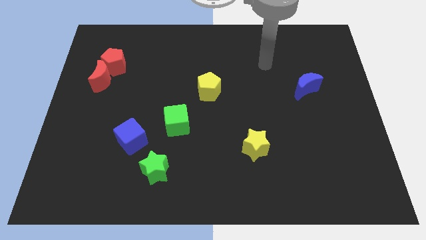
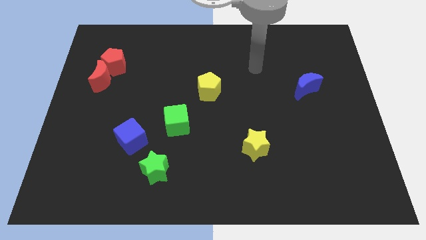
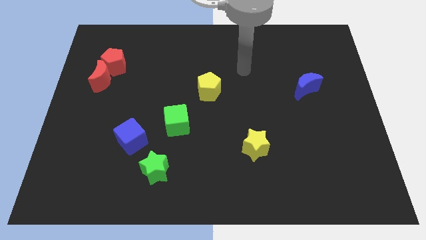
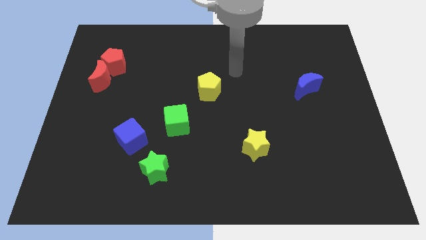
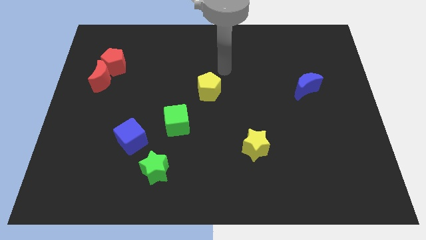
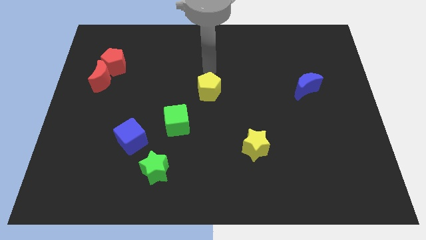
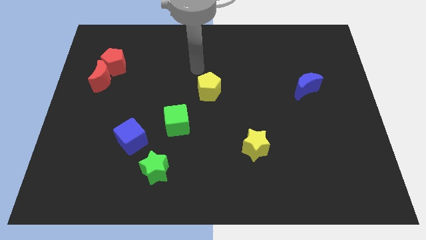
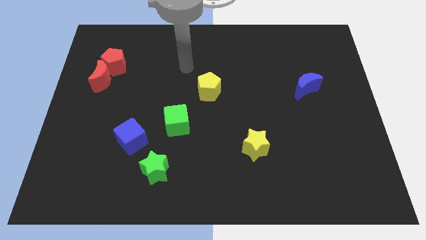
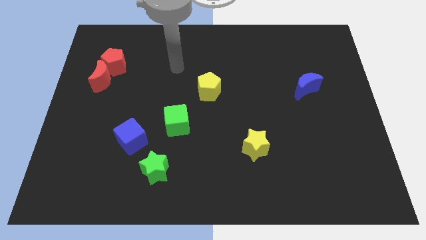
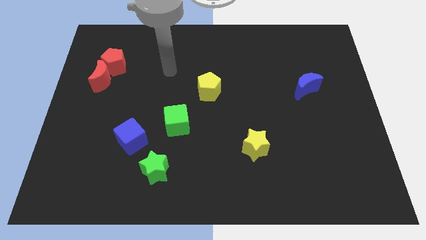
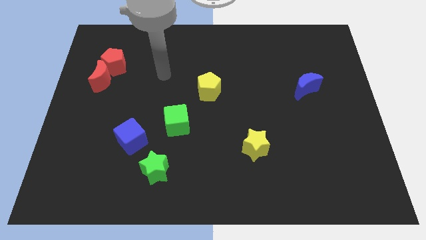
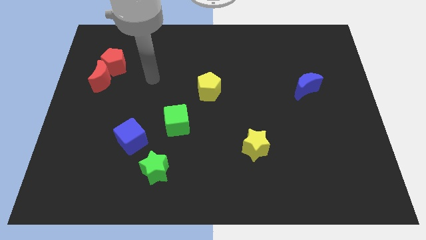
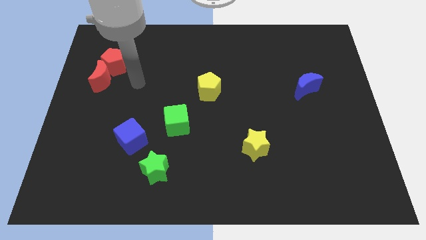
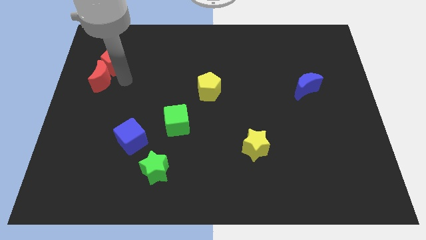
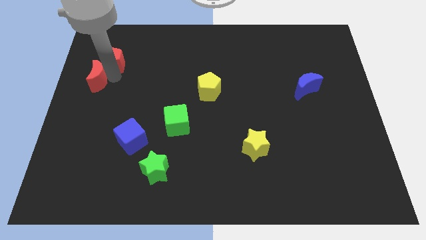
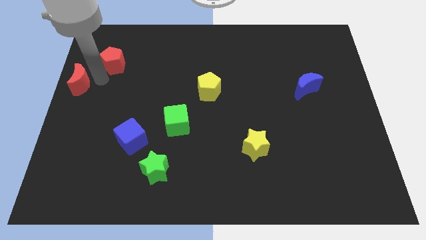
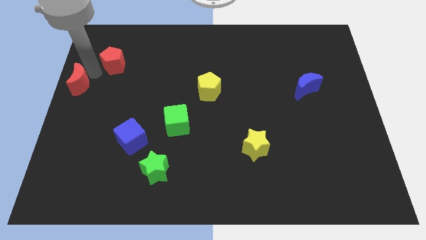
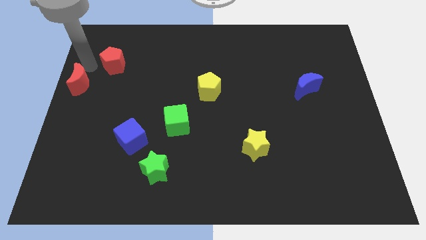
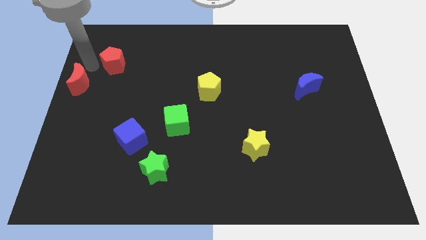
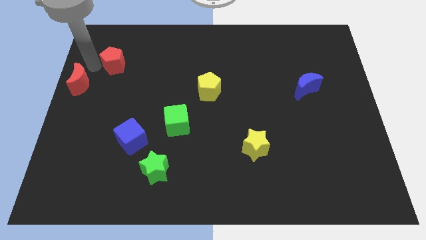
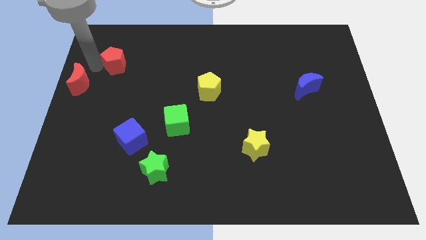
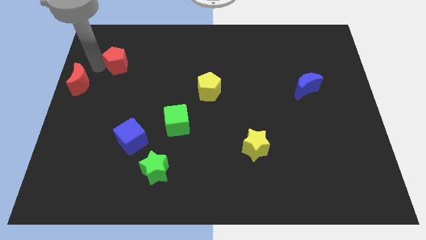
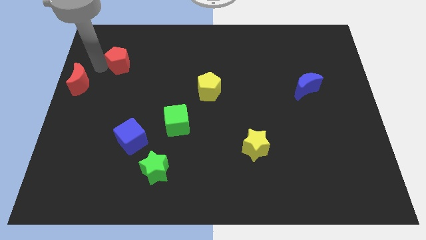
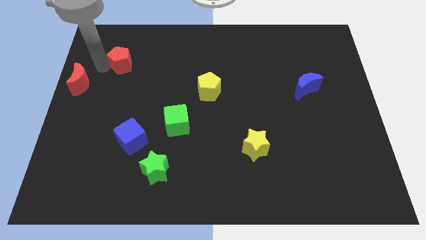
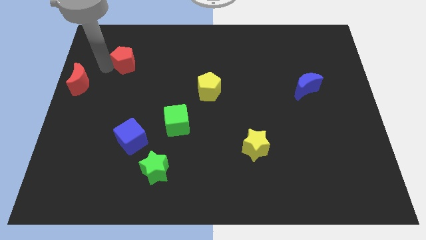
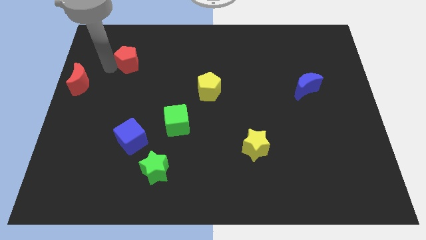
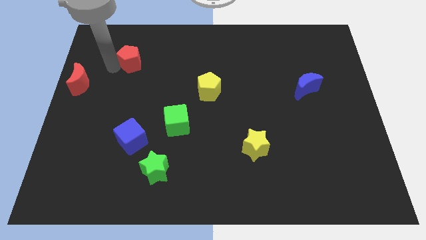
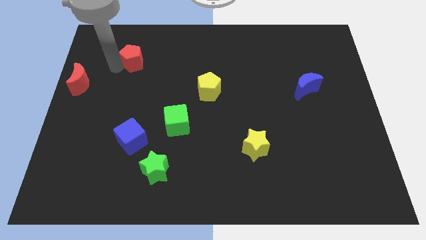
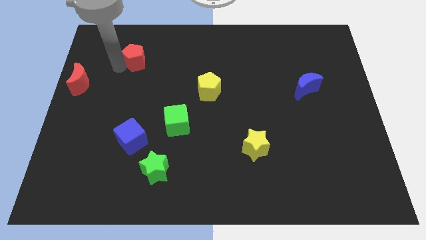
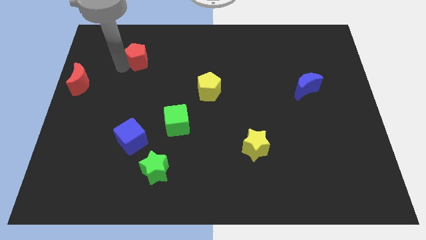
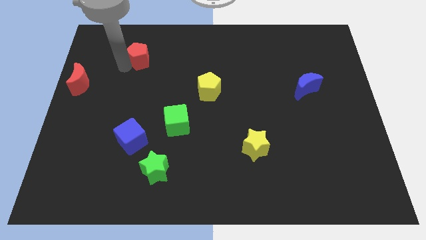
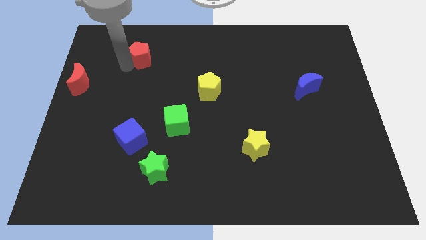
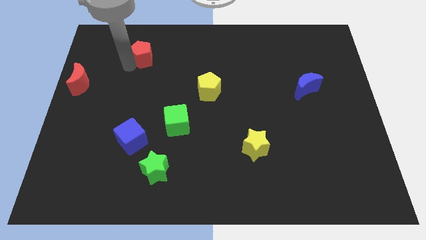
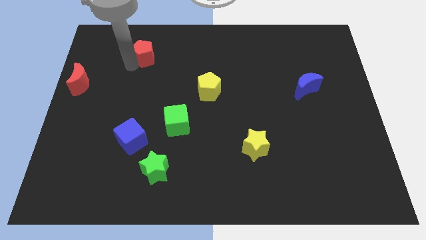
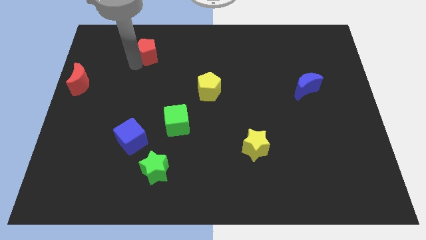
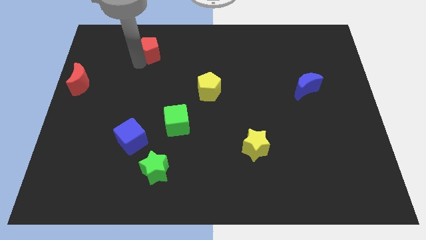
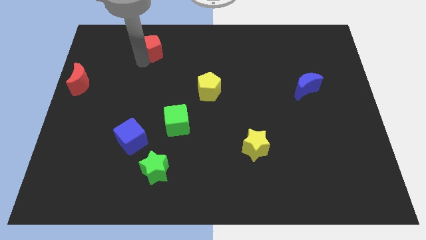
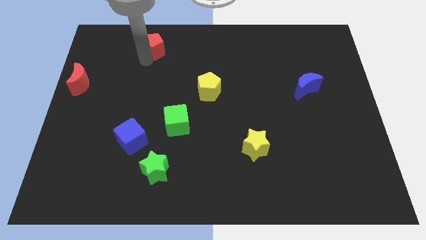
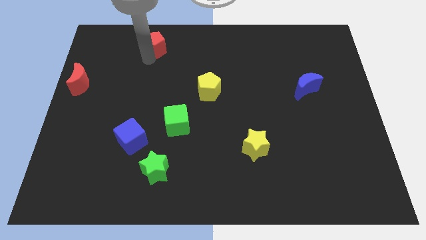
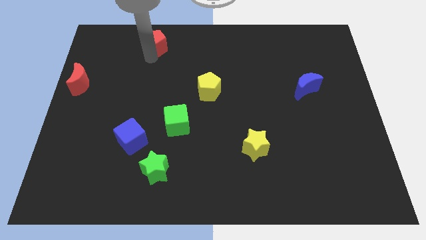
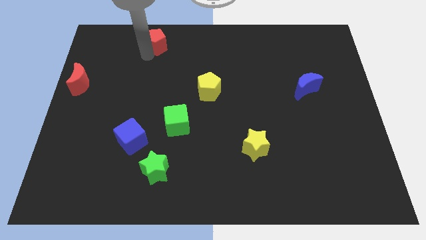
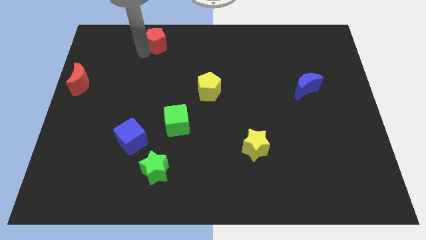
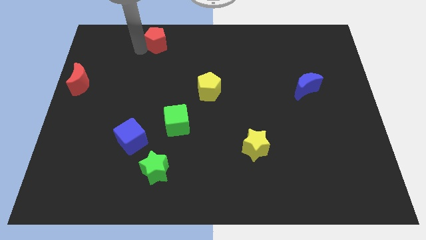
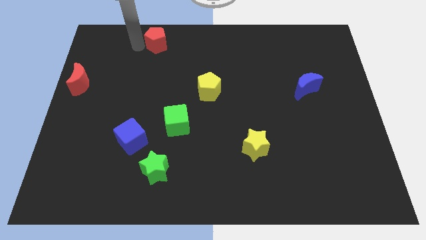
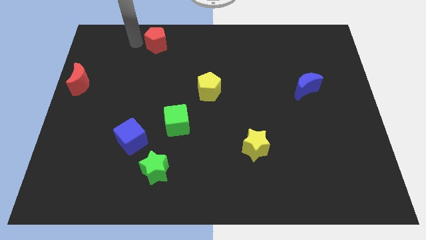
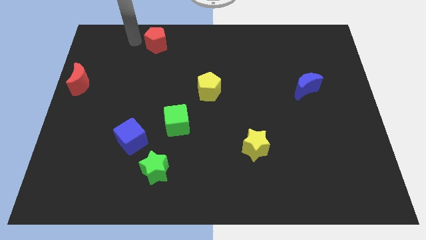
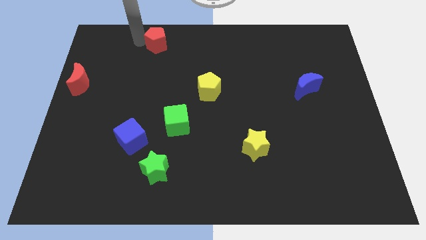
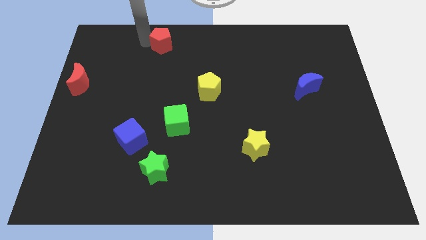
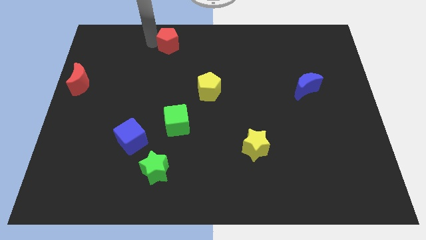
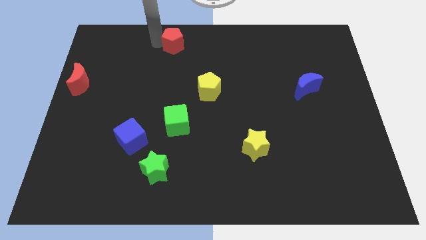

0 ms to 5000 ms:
move the red pentagon to the top side

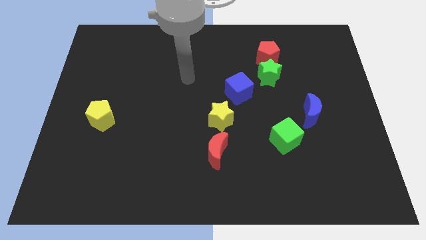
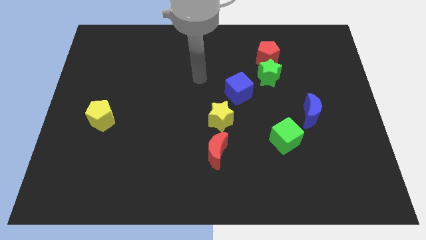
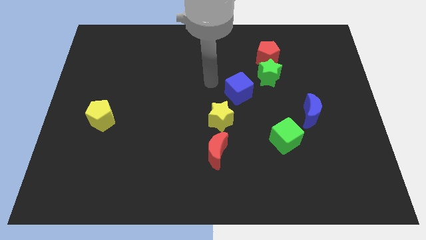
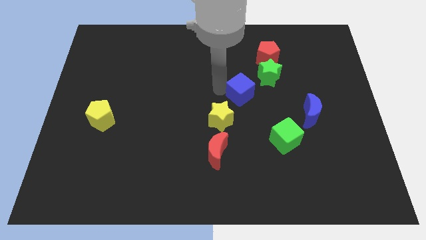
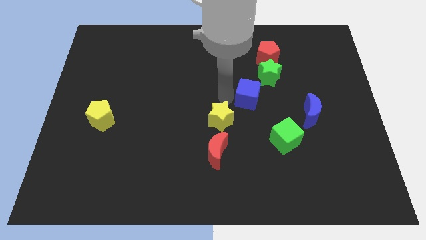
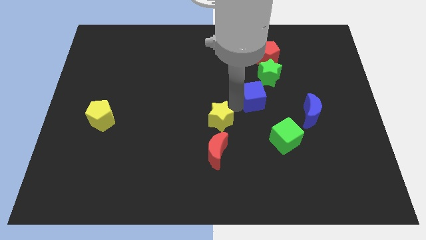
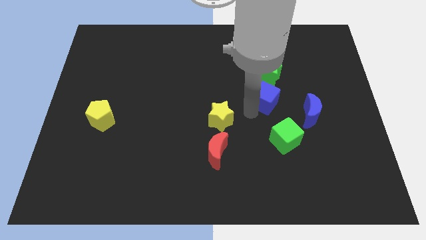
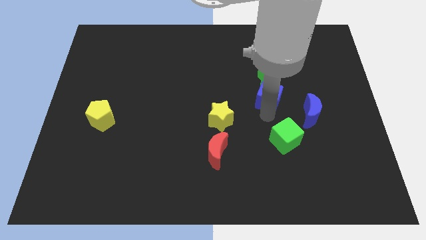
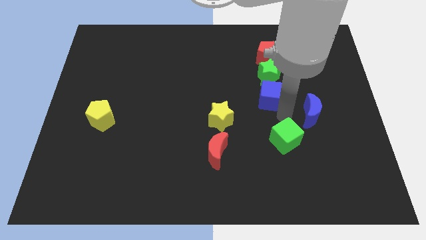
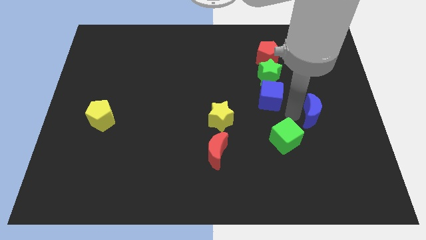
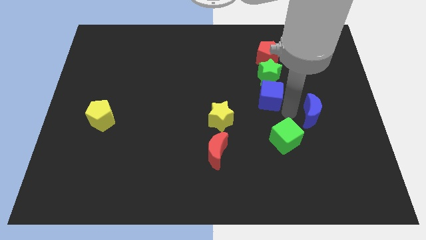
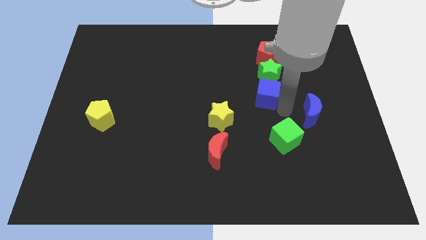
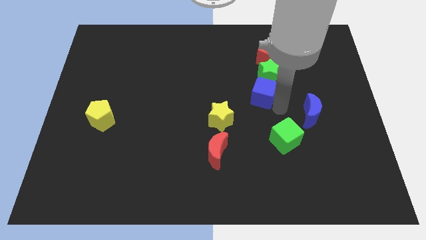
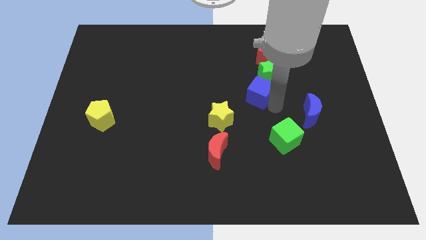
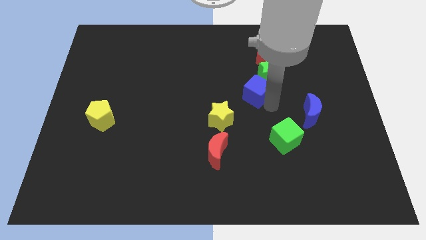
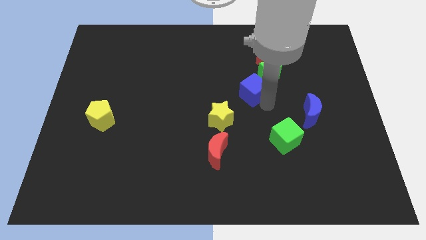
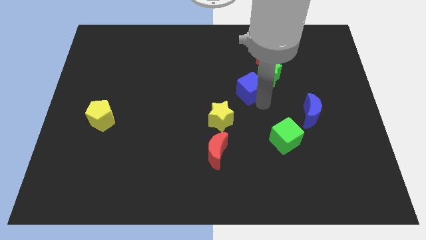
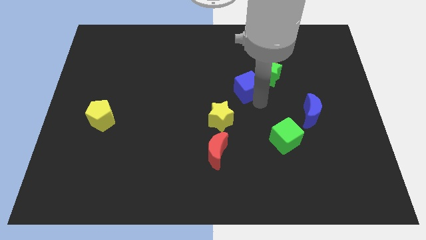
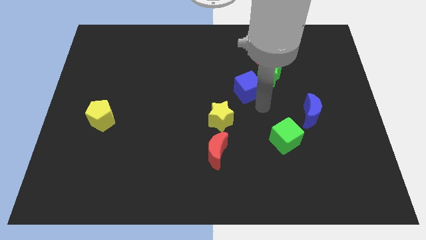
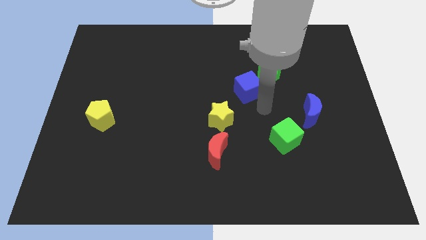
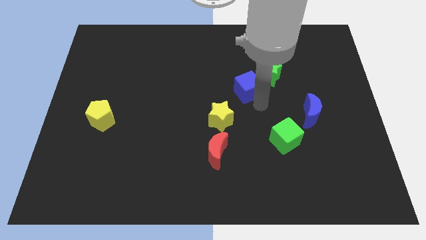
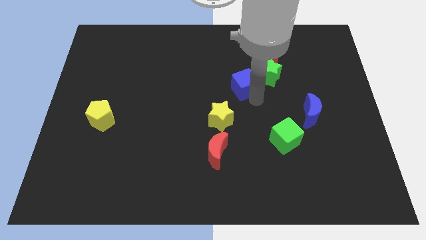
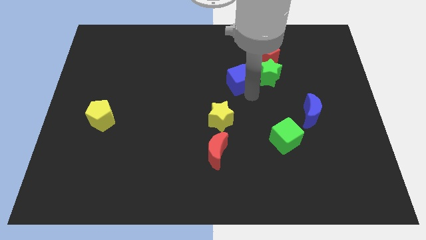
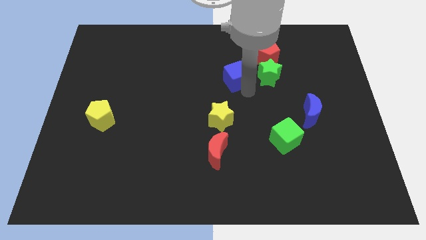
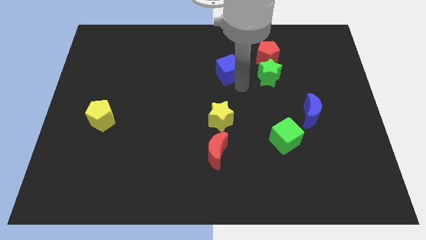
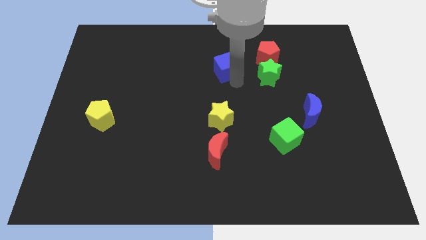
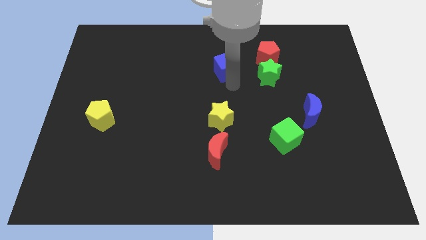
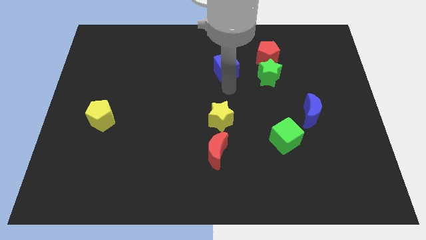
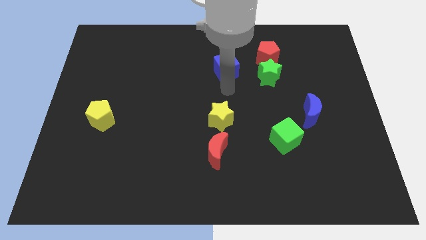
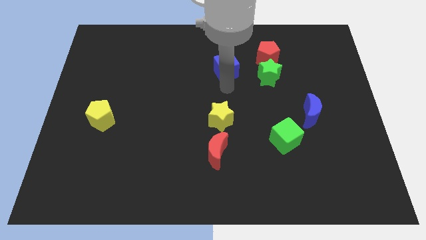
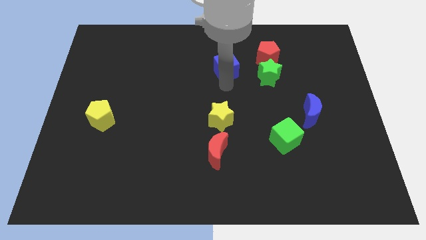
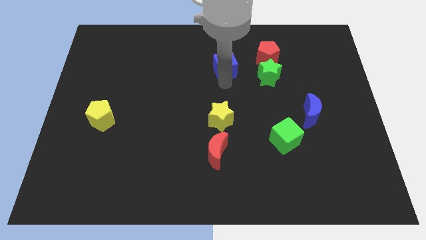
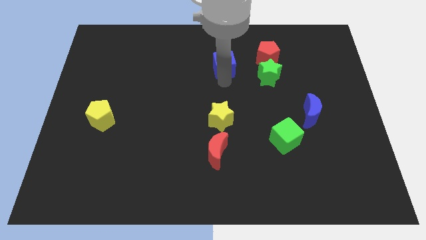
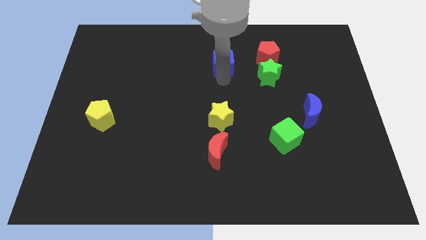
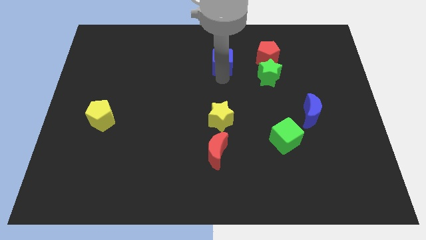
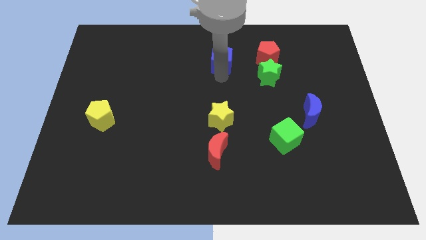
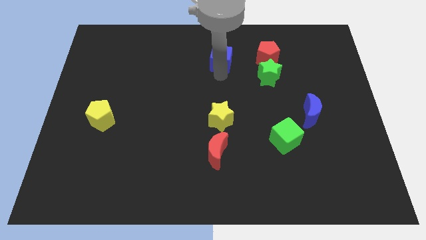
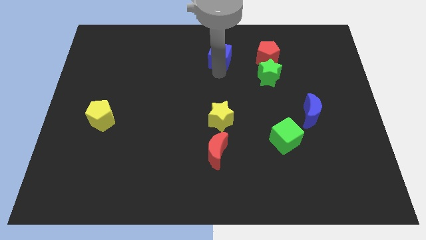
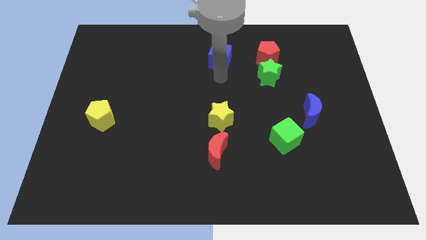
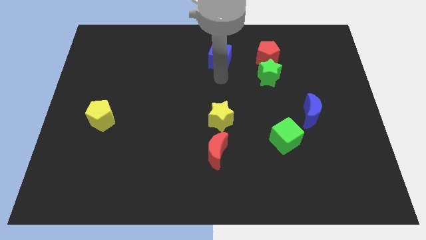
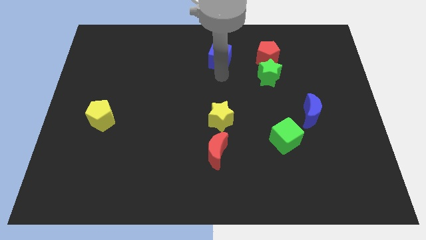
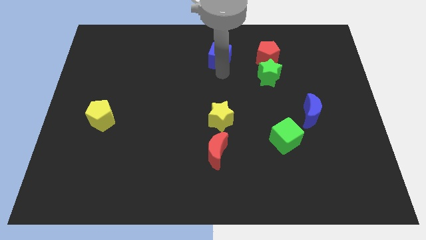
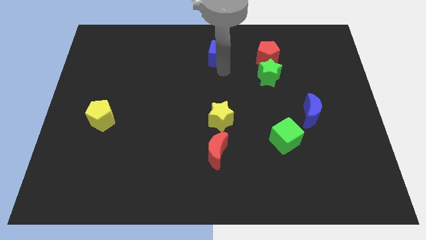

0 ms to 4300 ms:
put the blue cube to the towards your base
